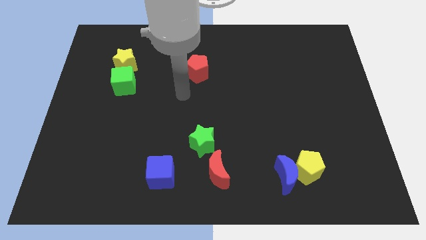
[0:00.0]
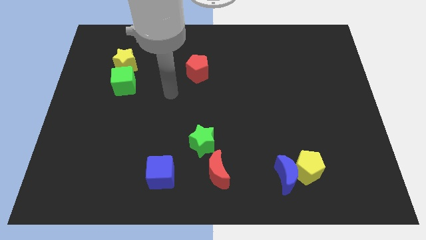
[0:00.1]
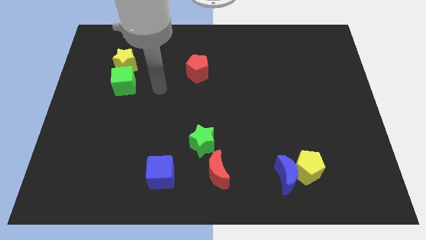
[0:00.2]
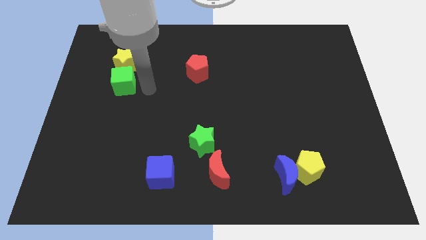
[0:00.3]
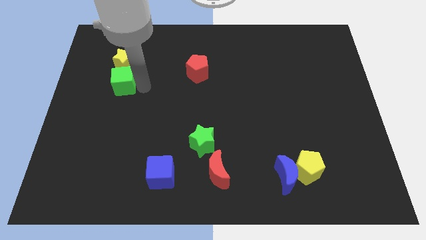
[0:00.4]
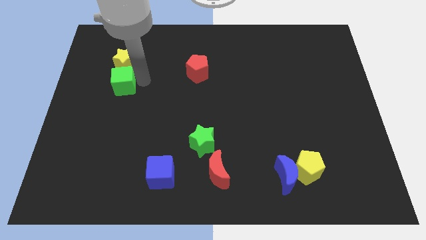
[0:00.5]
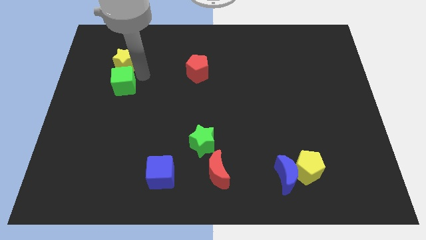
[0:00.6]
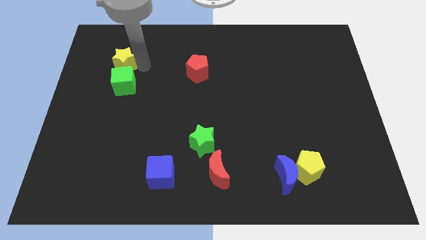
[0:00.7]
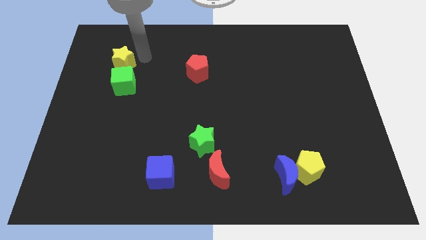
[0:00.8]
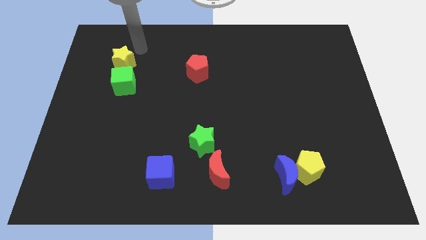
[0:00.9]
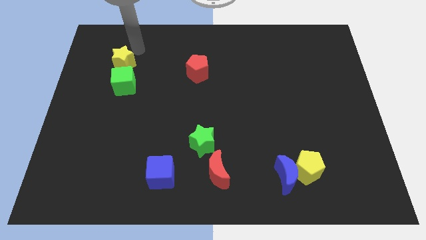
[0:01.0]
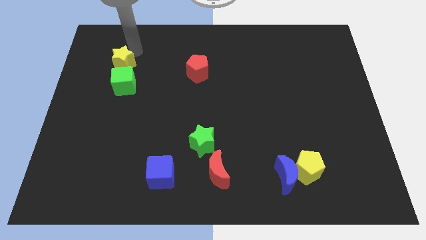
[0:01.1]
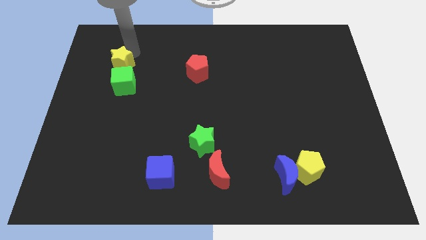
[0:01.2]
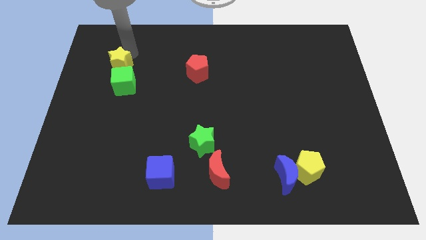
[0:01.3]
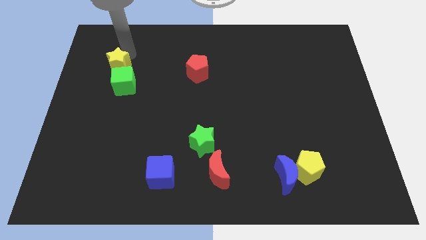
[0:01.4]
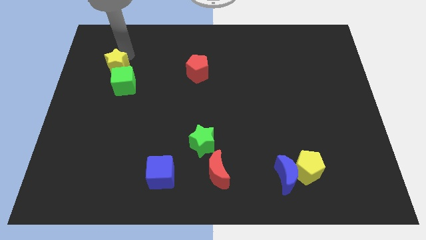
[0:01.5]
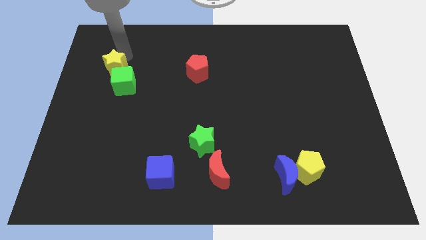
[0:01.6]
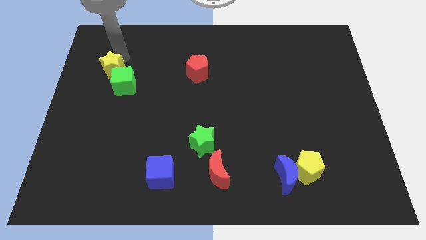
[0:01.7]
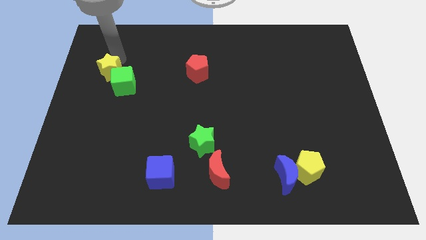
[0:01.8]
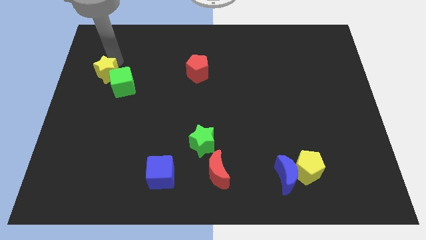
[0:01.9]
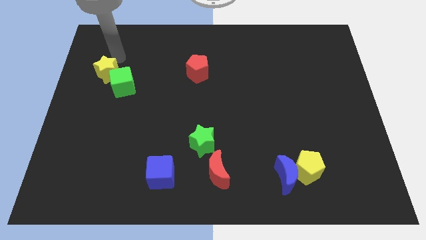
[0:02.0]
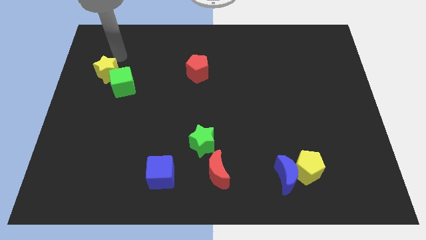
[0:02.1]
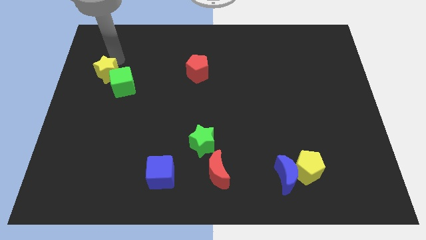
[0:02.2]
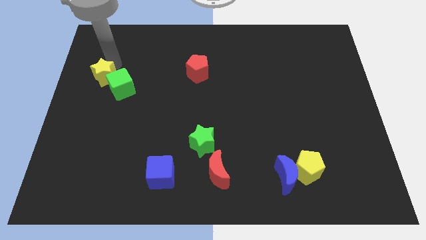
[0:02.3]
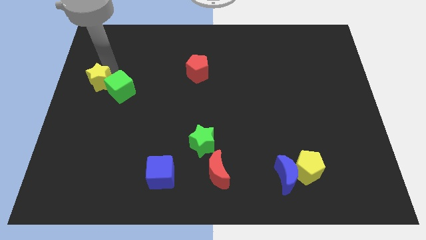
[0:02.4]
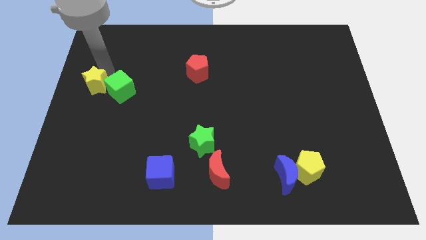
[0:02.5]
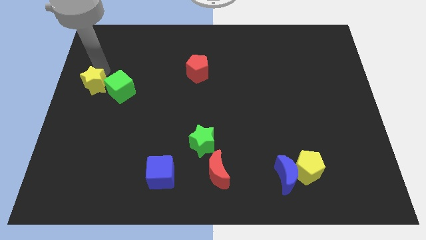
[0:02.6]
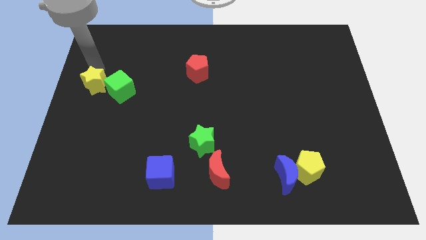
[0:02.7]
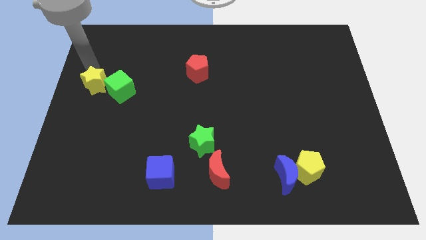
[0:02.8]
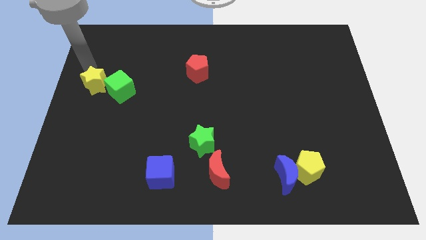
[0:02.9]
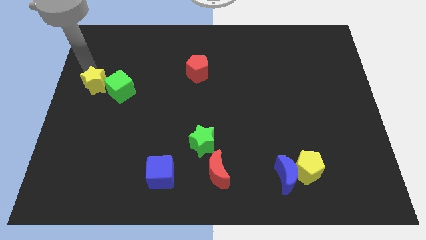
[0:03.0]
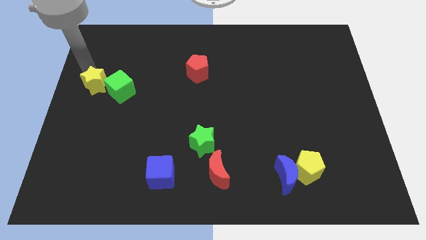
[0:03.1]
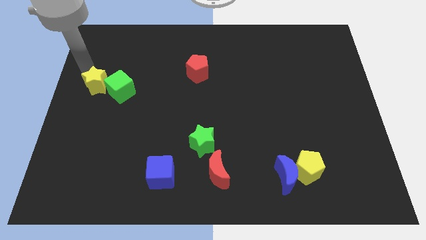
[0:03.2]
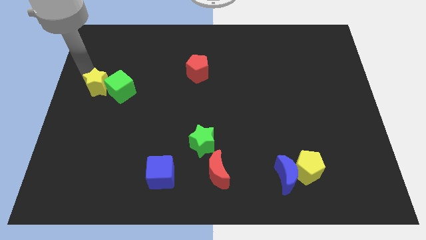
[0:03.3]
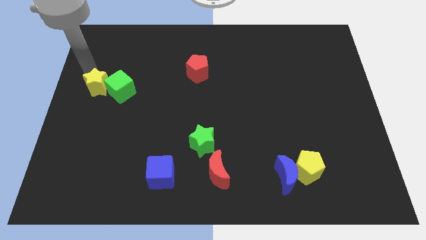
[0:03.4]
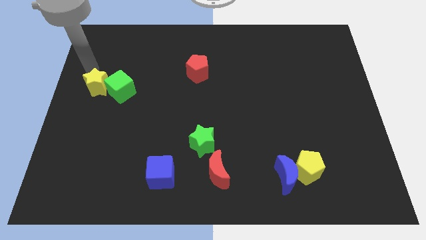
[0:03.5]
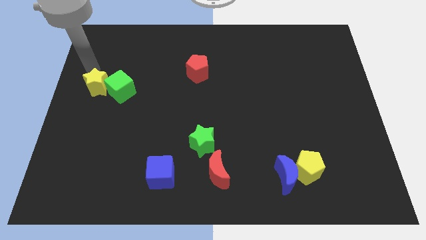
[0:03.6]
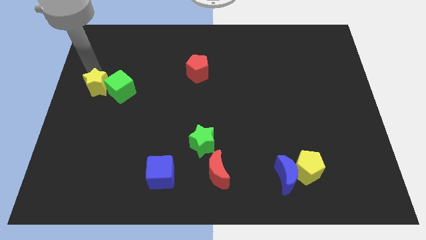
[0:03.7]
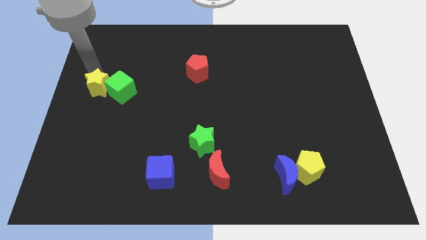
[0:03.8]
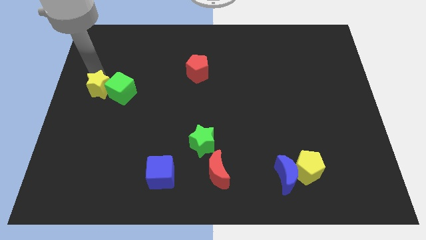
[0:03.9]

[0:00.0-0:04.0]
move the yellow star downwards somewhat

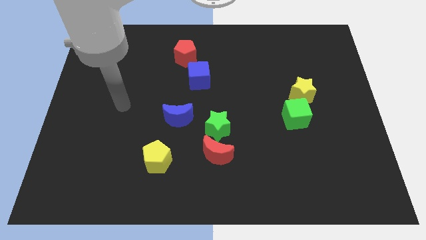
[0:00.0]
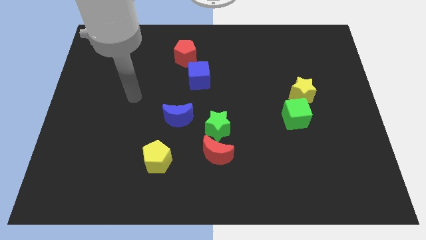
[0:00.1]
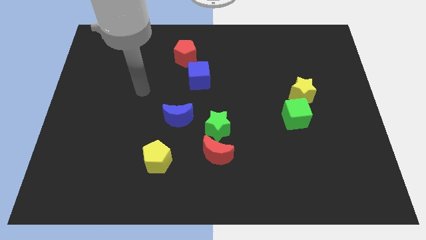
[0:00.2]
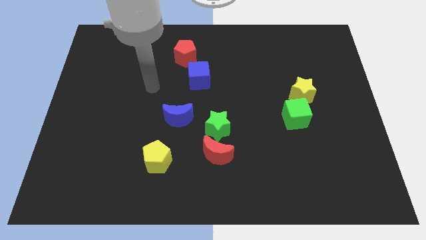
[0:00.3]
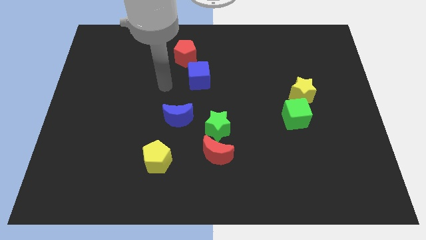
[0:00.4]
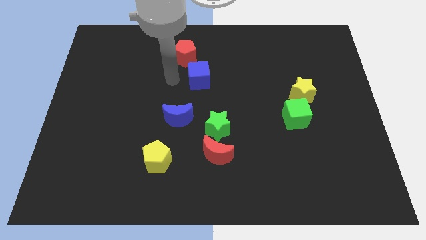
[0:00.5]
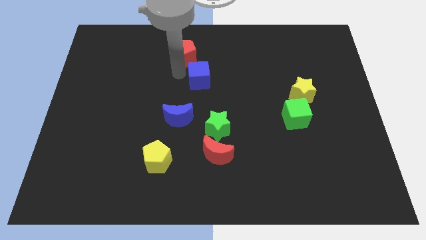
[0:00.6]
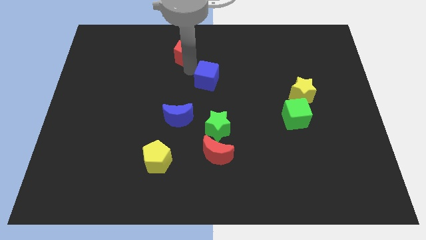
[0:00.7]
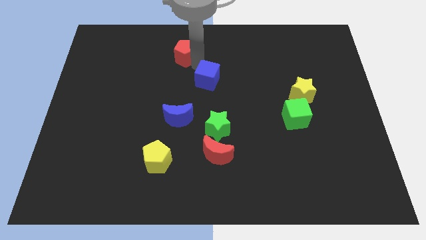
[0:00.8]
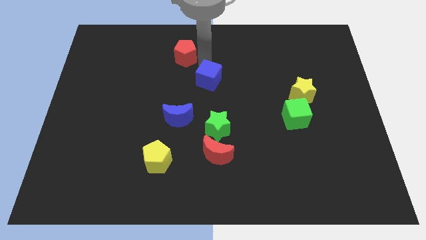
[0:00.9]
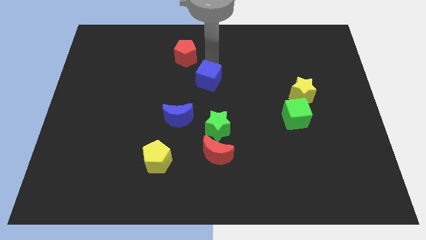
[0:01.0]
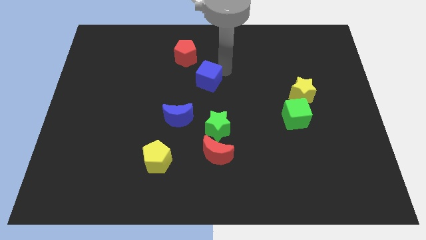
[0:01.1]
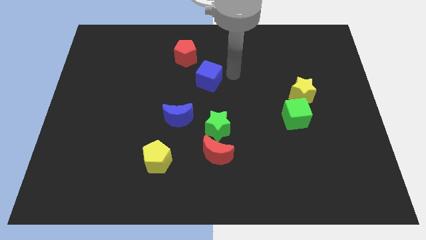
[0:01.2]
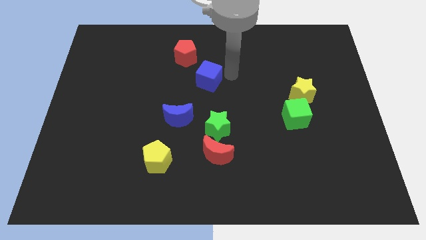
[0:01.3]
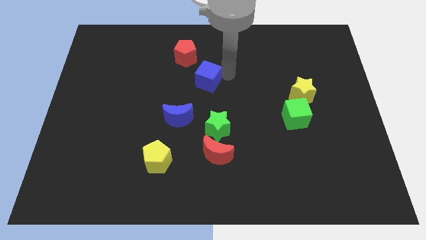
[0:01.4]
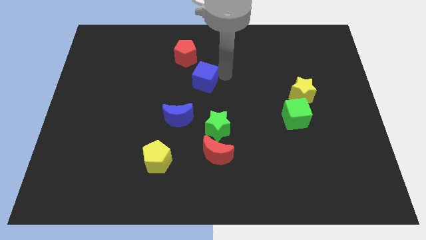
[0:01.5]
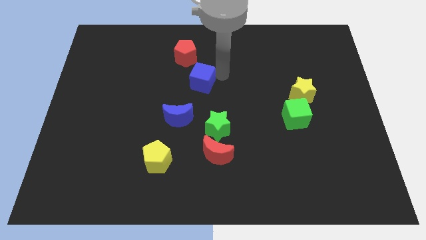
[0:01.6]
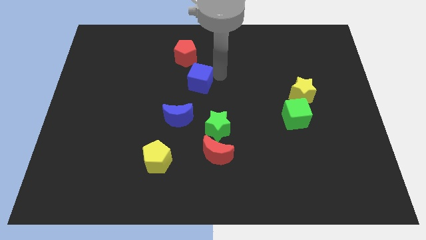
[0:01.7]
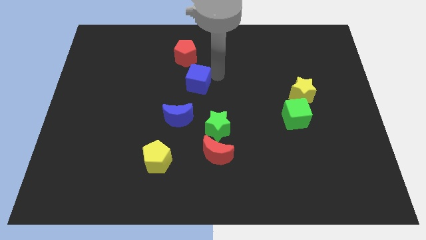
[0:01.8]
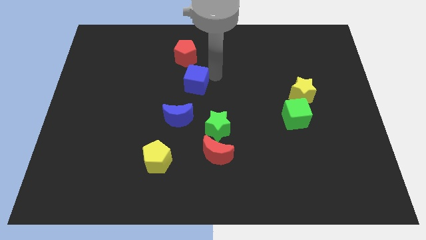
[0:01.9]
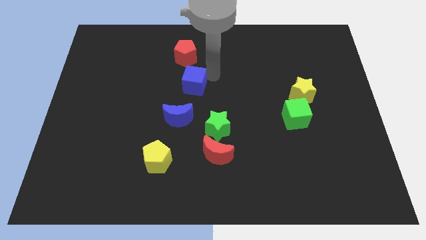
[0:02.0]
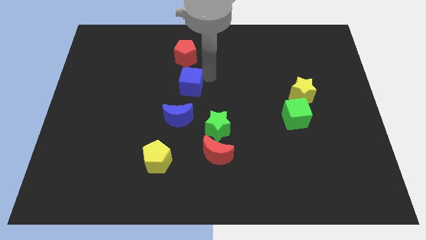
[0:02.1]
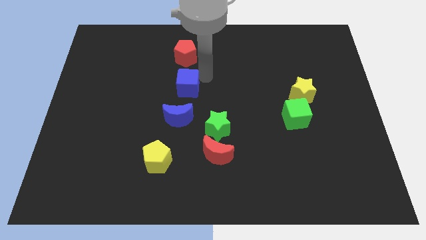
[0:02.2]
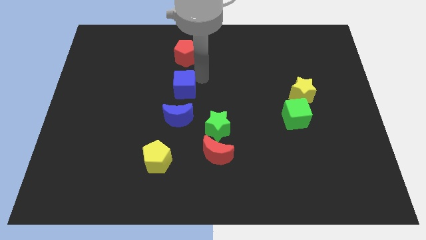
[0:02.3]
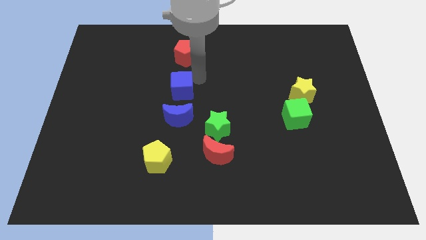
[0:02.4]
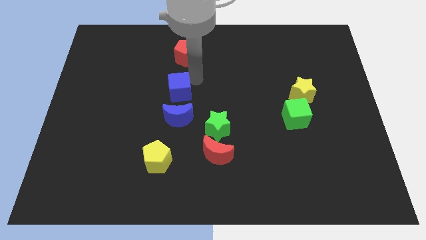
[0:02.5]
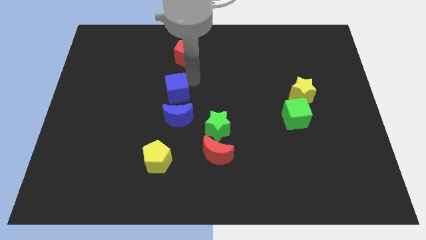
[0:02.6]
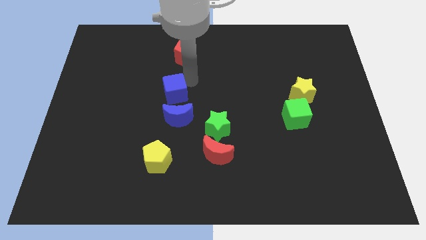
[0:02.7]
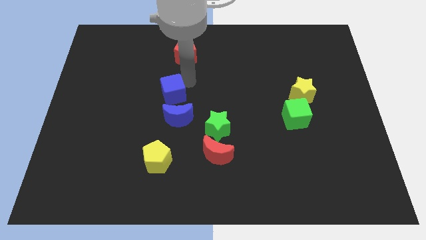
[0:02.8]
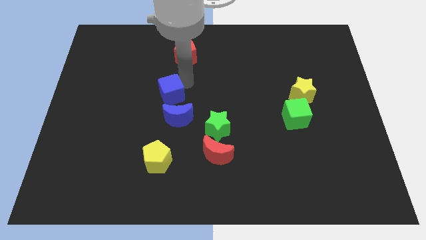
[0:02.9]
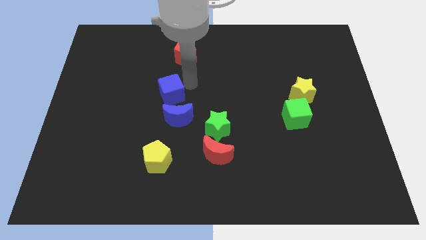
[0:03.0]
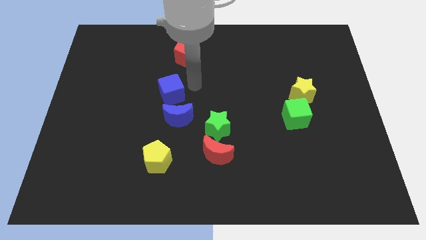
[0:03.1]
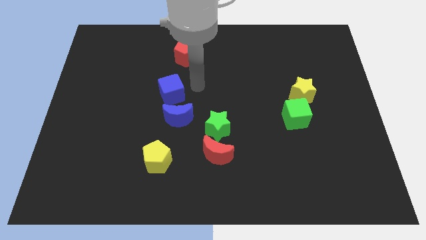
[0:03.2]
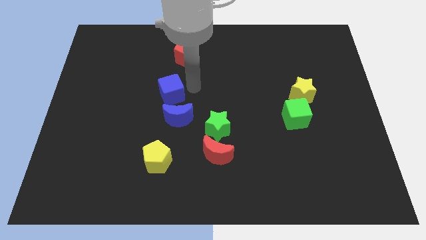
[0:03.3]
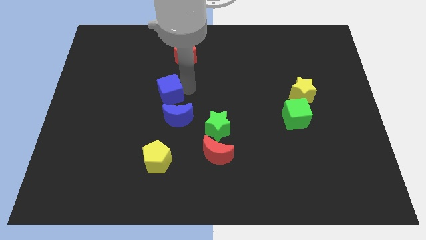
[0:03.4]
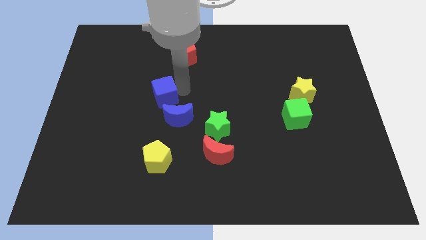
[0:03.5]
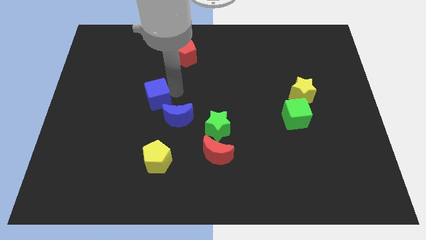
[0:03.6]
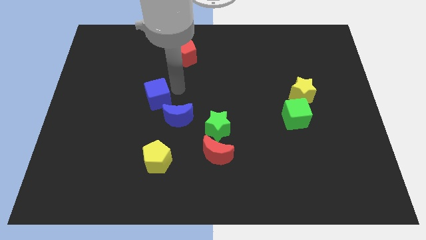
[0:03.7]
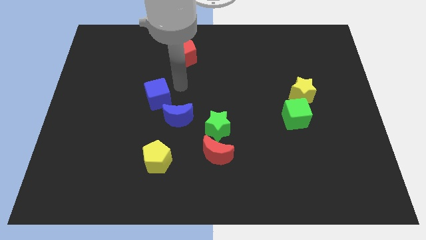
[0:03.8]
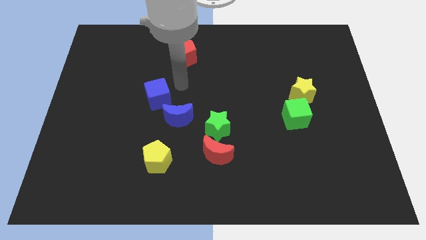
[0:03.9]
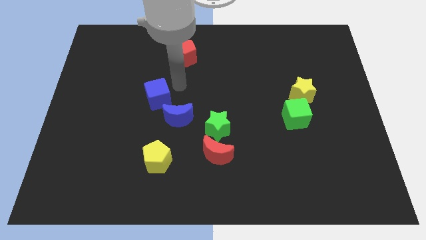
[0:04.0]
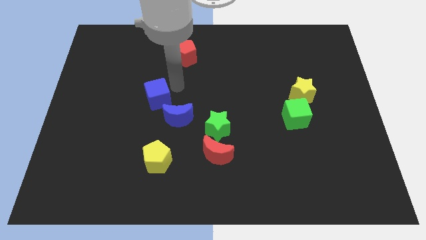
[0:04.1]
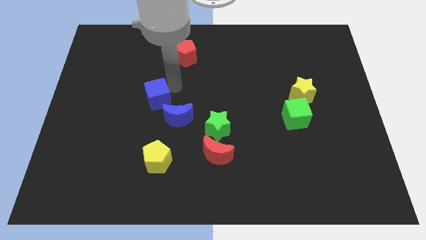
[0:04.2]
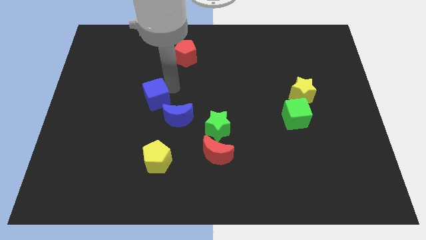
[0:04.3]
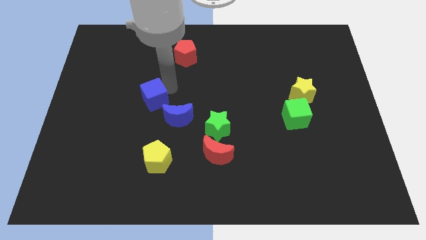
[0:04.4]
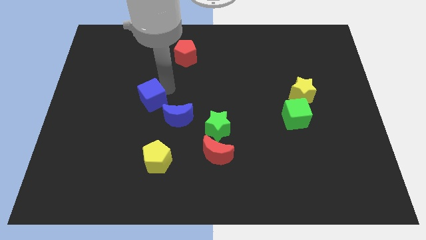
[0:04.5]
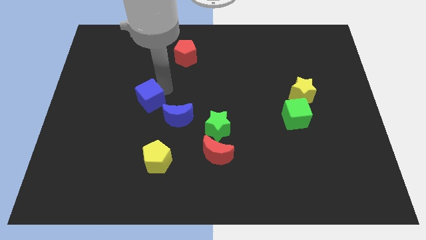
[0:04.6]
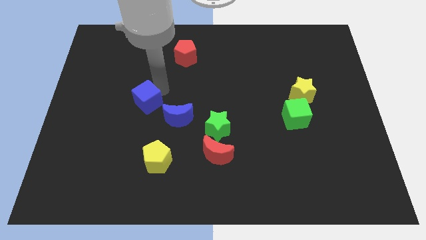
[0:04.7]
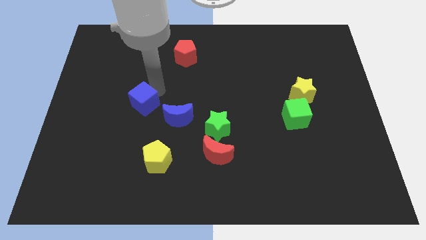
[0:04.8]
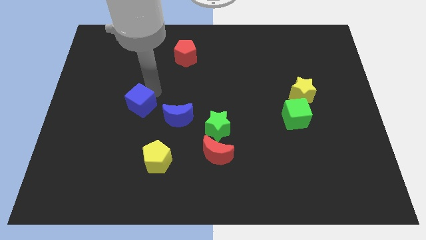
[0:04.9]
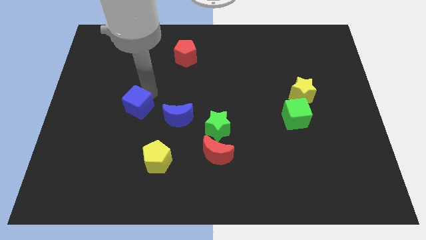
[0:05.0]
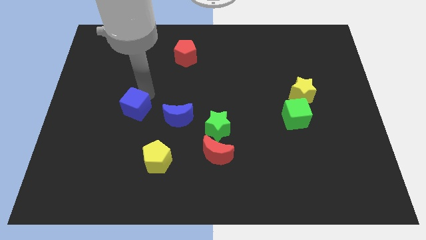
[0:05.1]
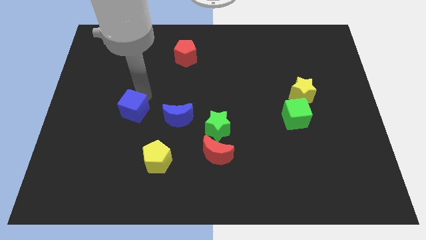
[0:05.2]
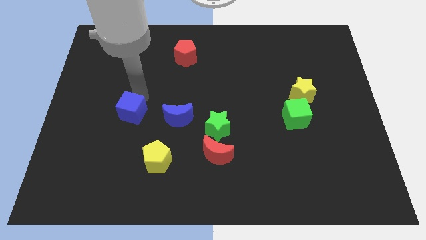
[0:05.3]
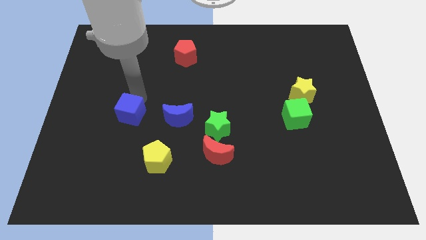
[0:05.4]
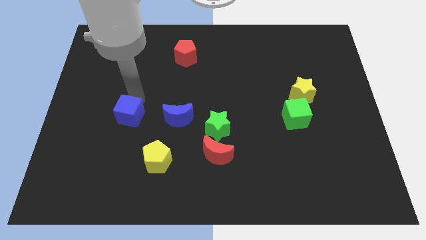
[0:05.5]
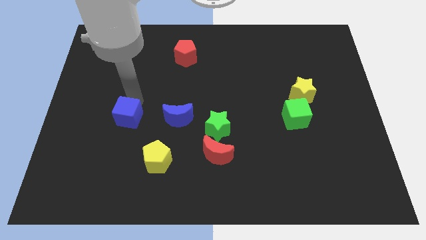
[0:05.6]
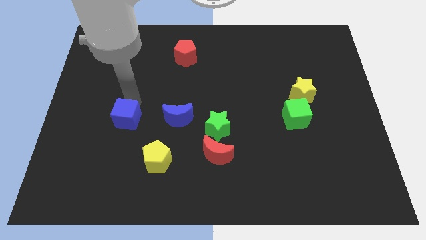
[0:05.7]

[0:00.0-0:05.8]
move the blue cube diagonally down and left
